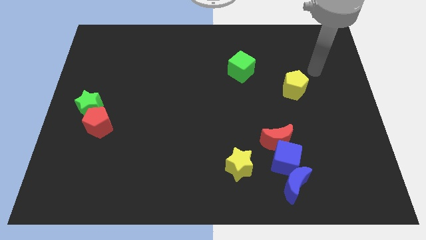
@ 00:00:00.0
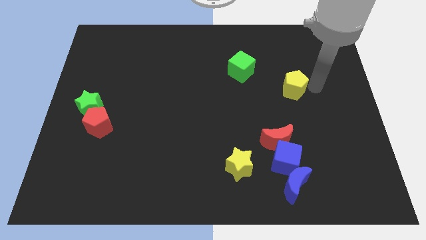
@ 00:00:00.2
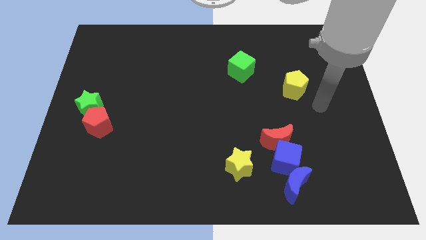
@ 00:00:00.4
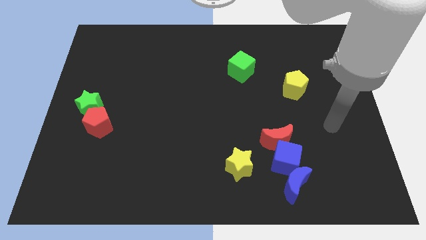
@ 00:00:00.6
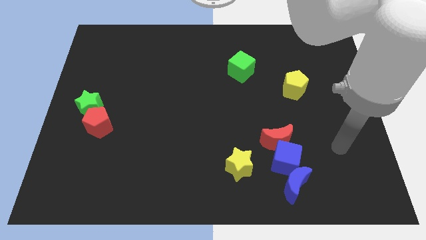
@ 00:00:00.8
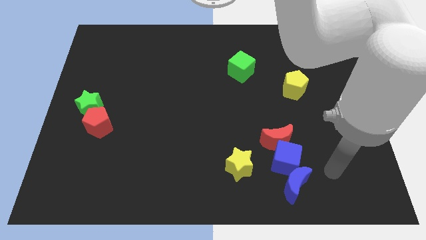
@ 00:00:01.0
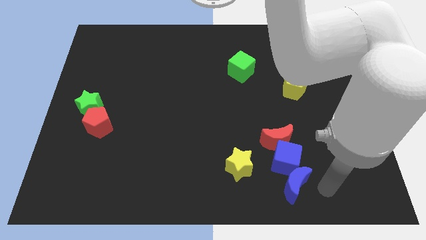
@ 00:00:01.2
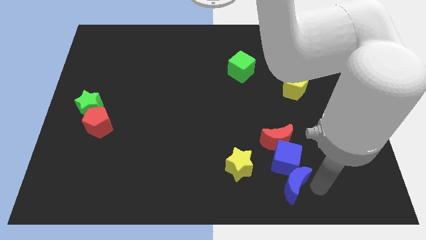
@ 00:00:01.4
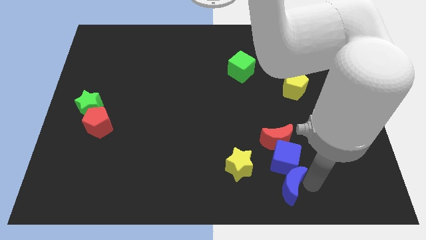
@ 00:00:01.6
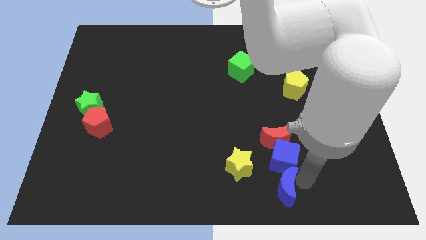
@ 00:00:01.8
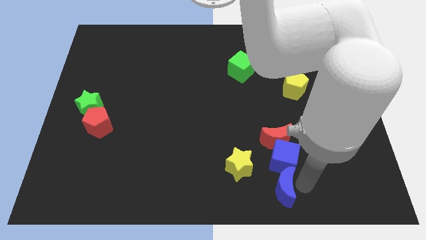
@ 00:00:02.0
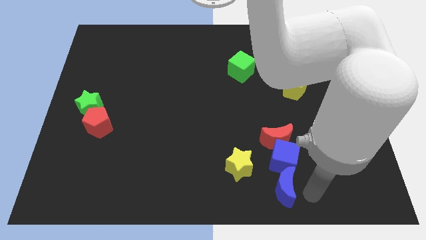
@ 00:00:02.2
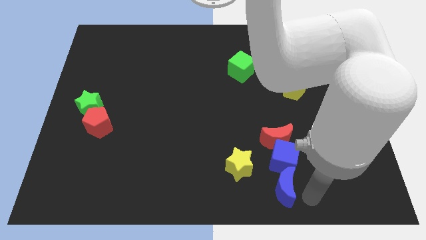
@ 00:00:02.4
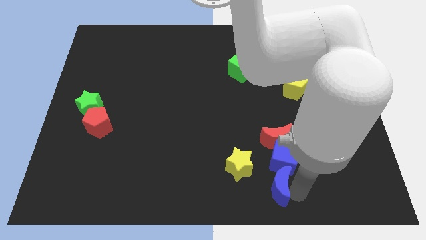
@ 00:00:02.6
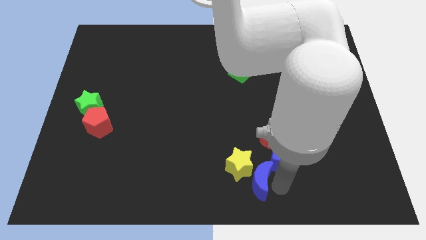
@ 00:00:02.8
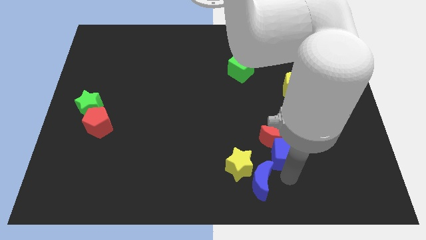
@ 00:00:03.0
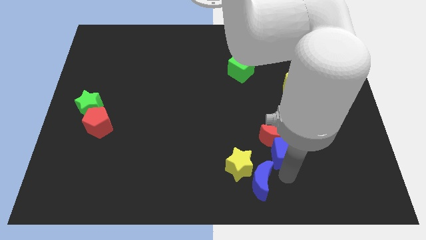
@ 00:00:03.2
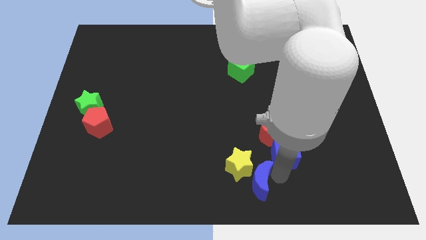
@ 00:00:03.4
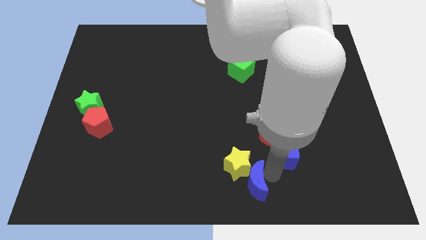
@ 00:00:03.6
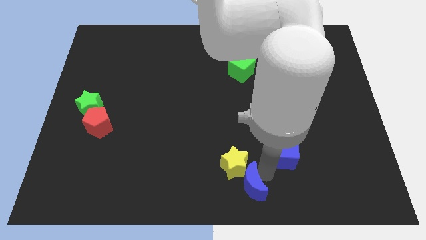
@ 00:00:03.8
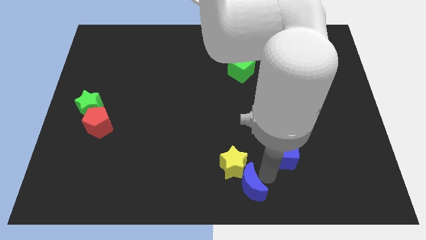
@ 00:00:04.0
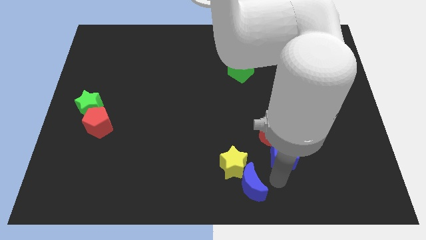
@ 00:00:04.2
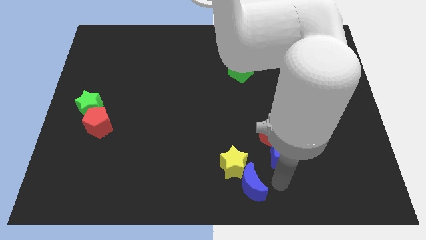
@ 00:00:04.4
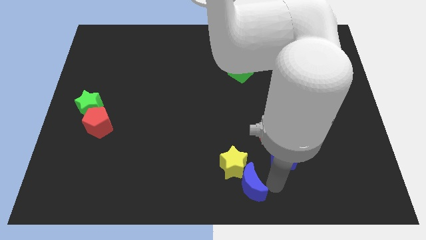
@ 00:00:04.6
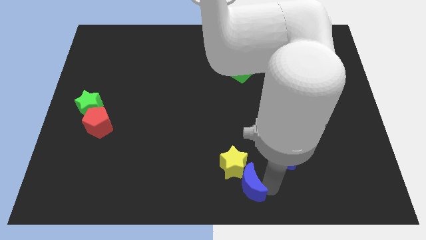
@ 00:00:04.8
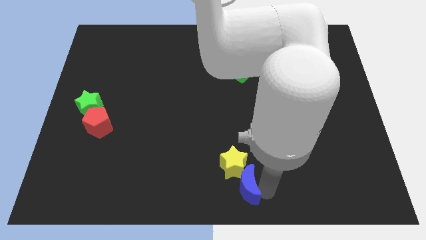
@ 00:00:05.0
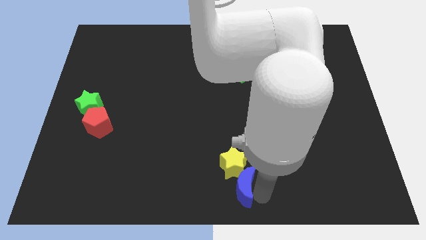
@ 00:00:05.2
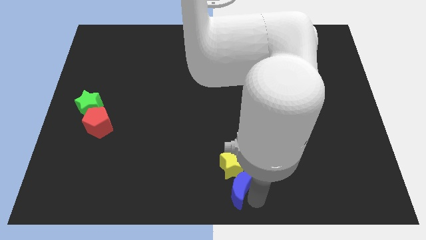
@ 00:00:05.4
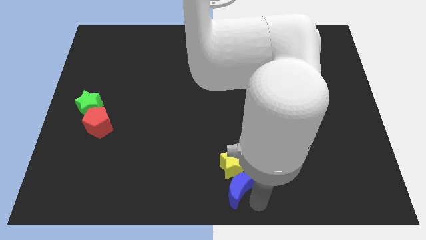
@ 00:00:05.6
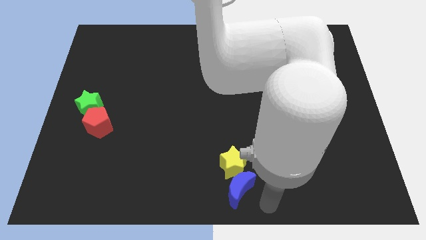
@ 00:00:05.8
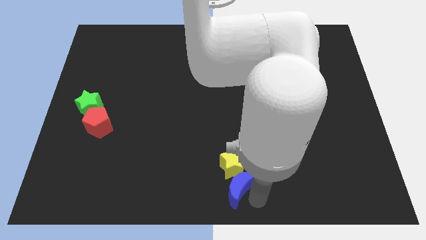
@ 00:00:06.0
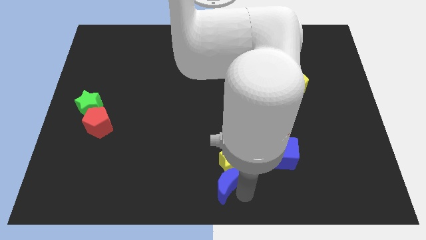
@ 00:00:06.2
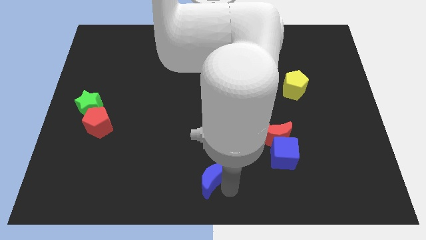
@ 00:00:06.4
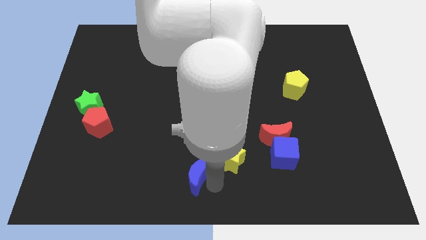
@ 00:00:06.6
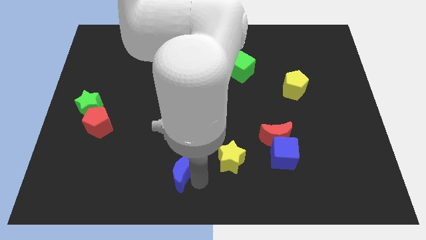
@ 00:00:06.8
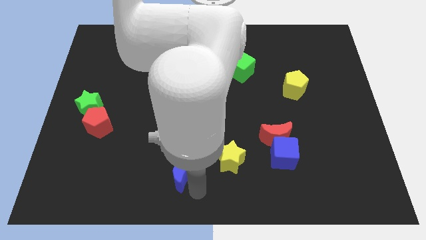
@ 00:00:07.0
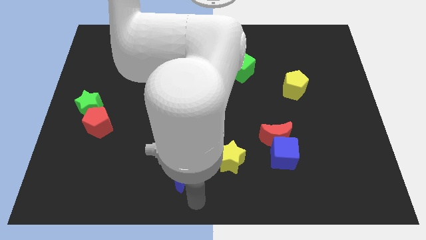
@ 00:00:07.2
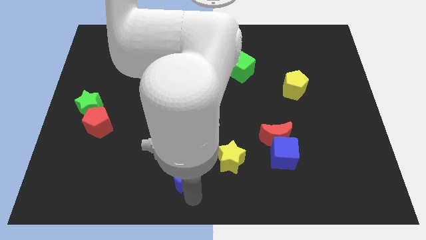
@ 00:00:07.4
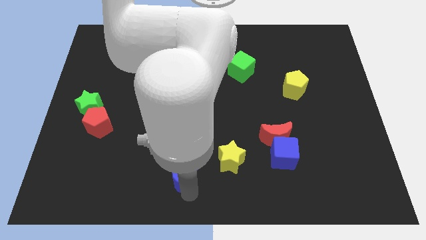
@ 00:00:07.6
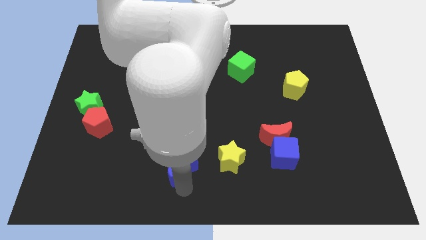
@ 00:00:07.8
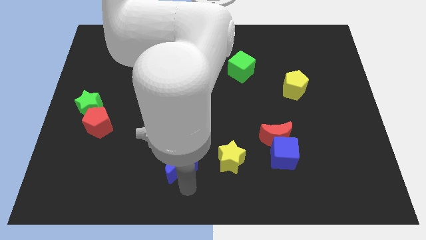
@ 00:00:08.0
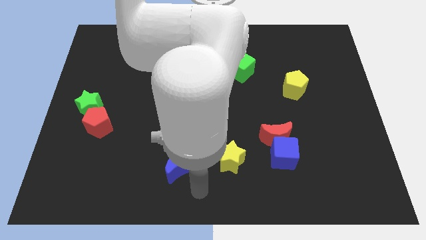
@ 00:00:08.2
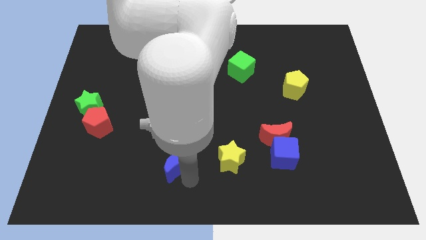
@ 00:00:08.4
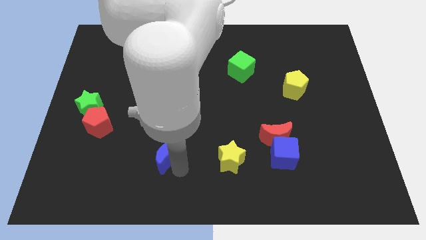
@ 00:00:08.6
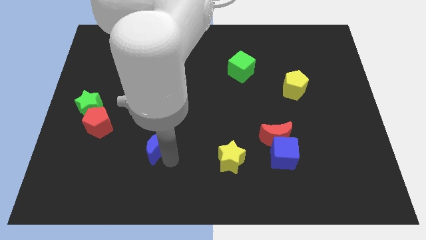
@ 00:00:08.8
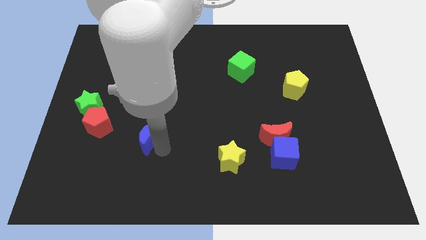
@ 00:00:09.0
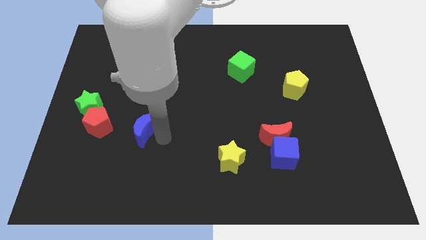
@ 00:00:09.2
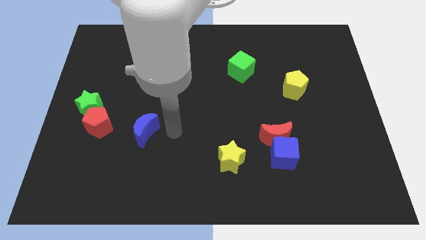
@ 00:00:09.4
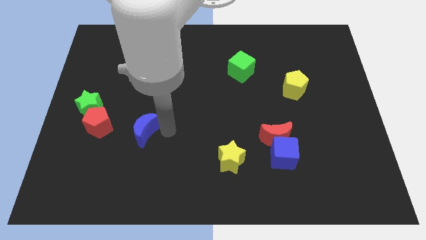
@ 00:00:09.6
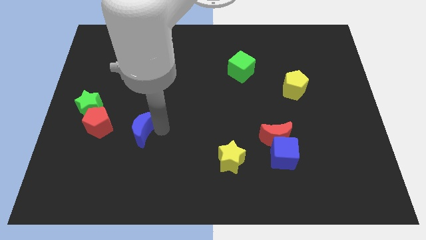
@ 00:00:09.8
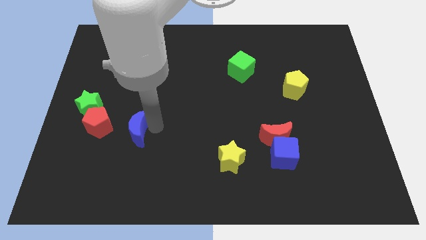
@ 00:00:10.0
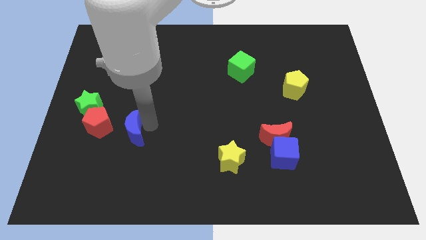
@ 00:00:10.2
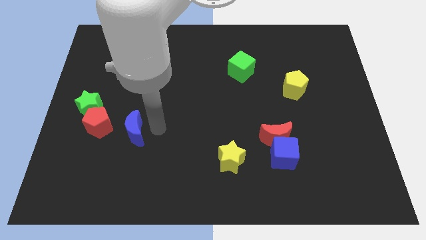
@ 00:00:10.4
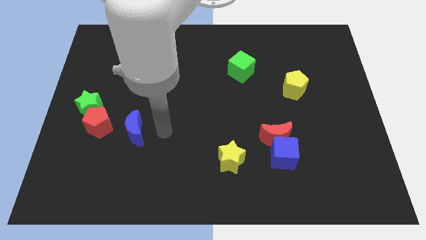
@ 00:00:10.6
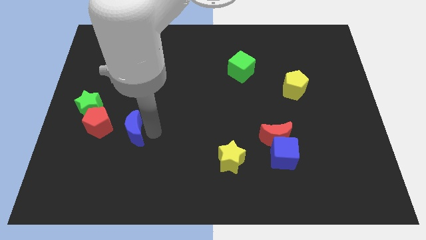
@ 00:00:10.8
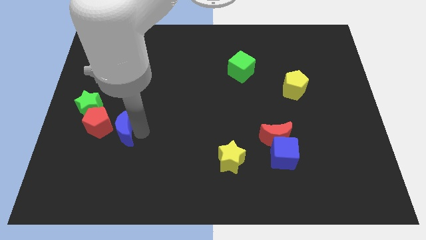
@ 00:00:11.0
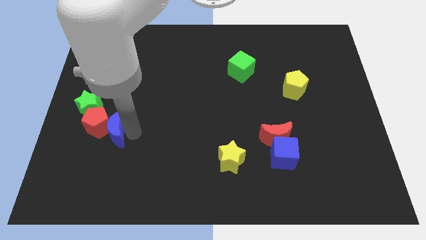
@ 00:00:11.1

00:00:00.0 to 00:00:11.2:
slide the blue moon to the red pentagon
